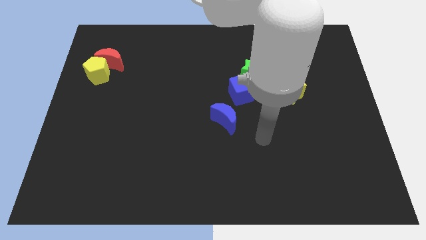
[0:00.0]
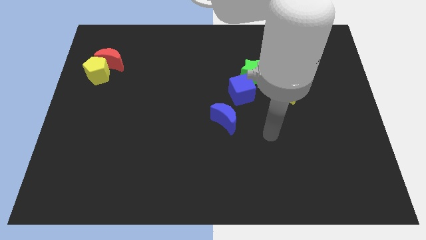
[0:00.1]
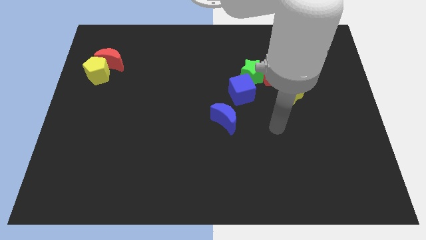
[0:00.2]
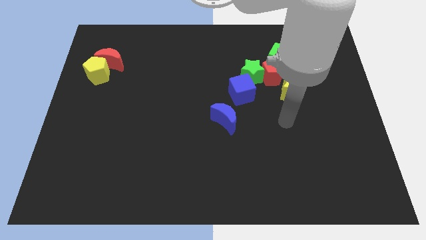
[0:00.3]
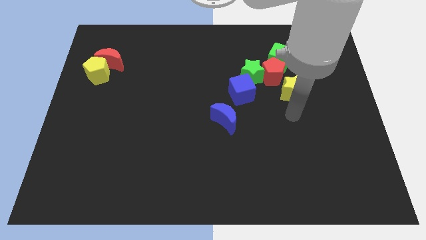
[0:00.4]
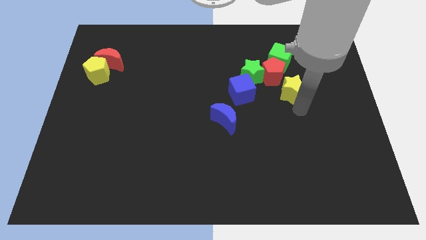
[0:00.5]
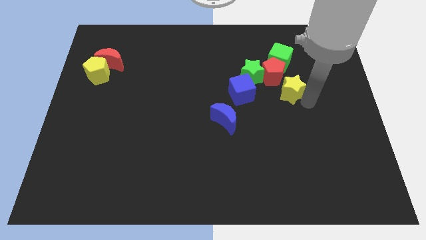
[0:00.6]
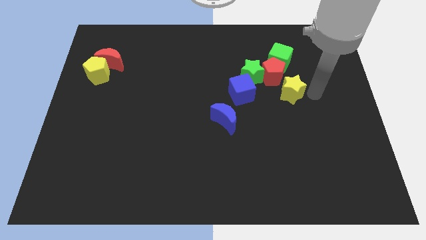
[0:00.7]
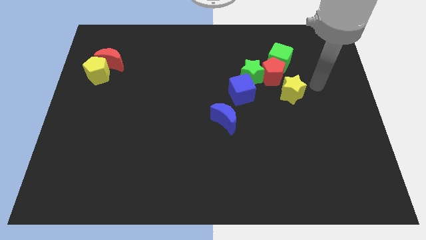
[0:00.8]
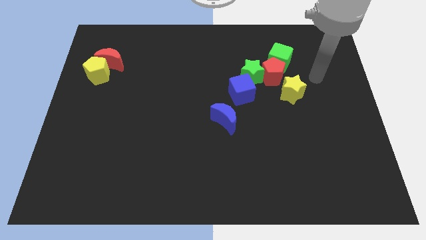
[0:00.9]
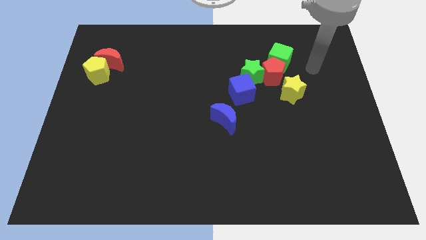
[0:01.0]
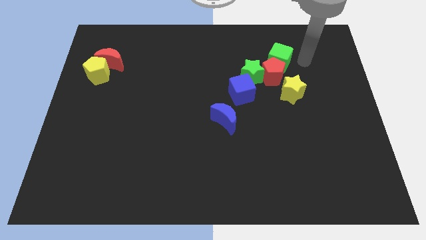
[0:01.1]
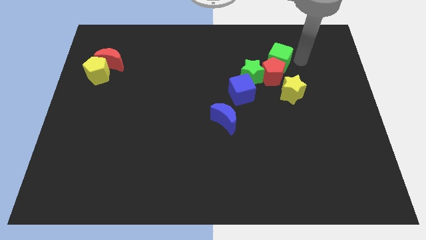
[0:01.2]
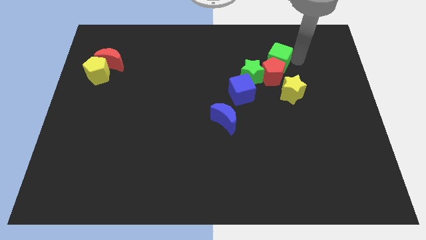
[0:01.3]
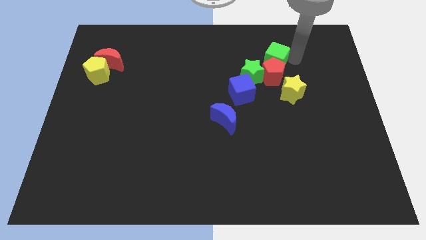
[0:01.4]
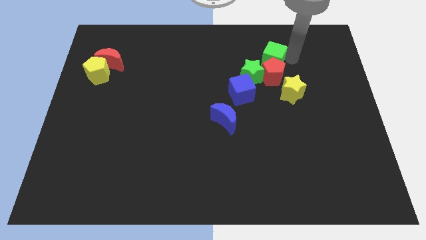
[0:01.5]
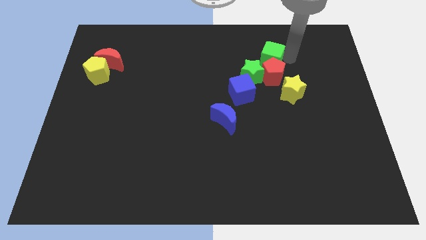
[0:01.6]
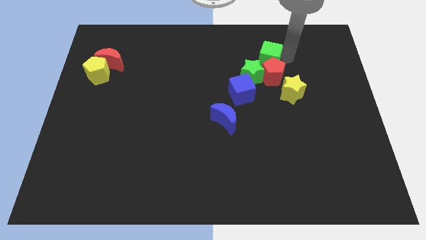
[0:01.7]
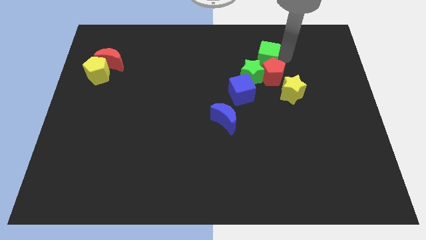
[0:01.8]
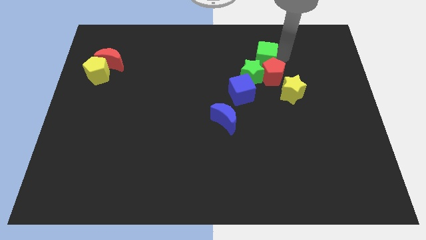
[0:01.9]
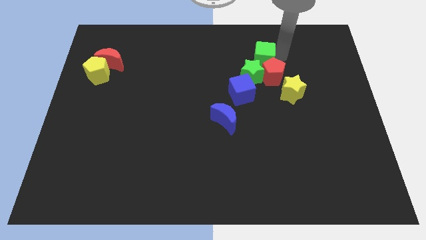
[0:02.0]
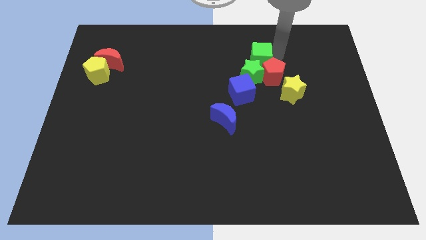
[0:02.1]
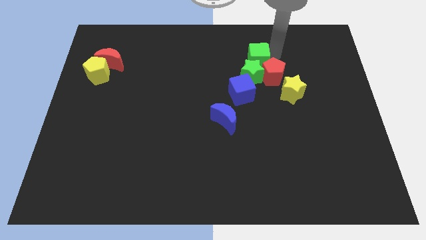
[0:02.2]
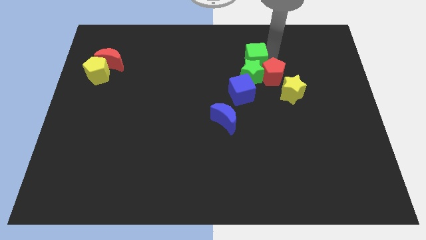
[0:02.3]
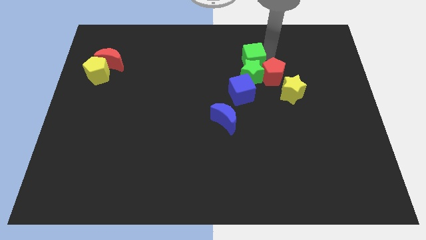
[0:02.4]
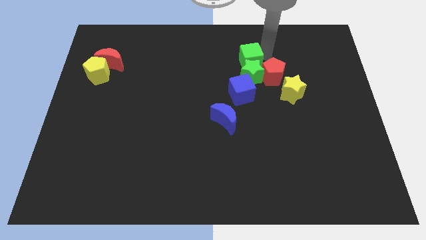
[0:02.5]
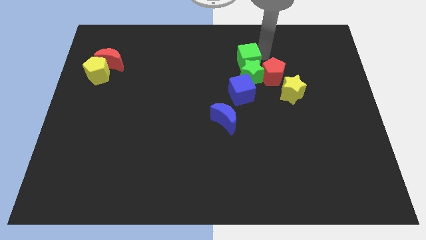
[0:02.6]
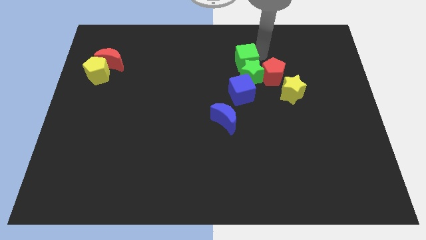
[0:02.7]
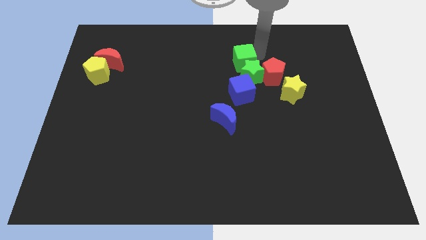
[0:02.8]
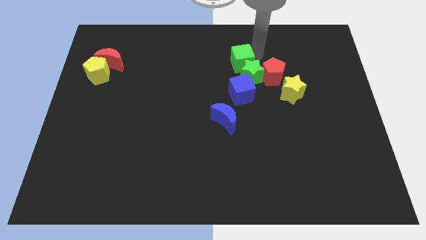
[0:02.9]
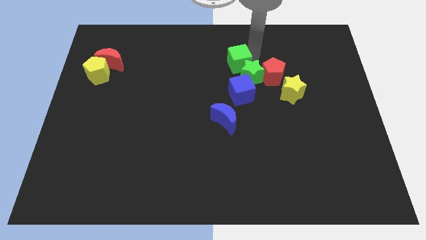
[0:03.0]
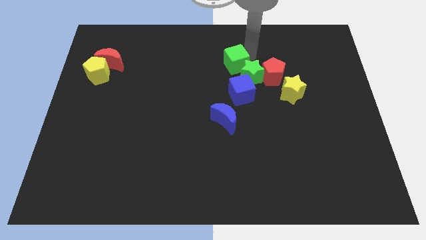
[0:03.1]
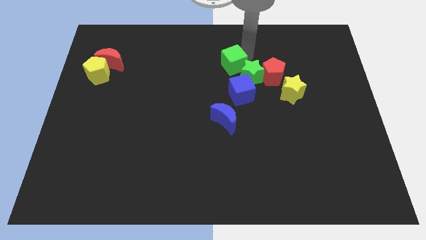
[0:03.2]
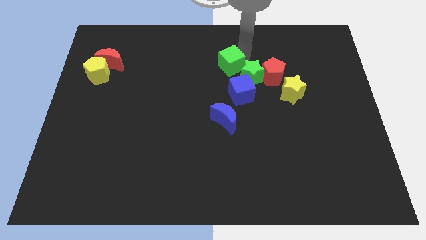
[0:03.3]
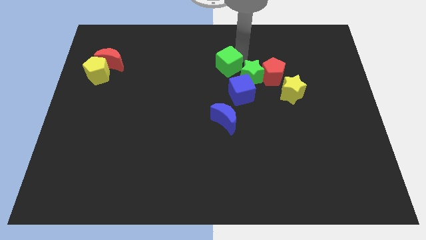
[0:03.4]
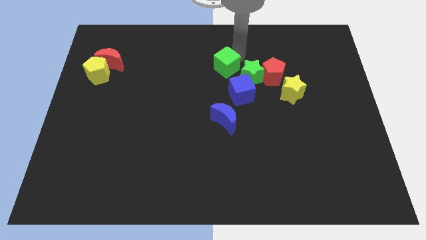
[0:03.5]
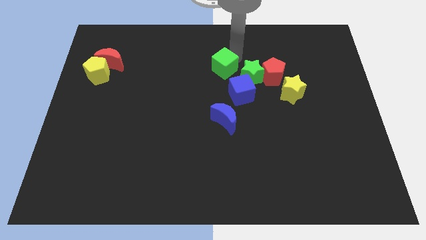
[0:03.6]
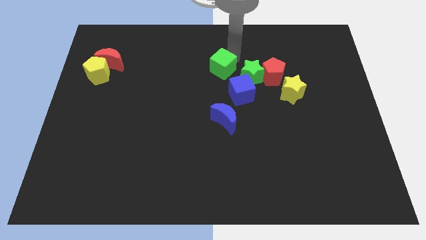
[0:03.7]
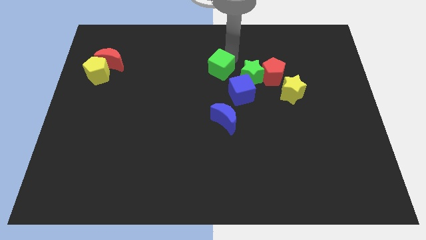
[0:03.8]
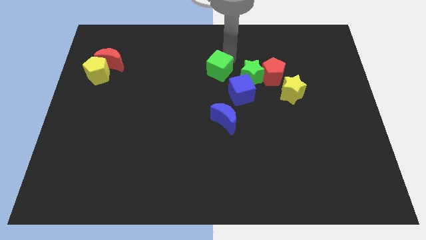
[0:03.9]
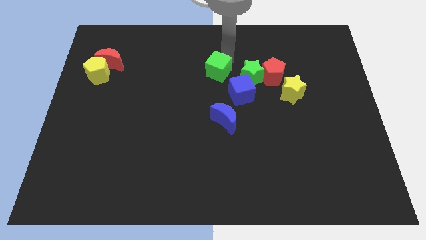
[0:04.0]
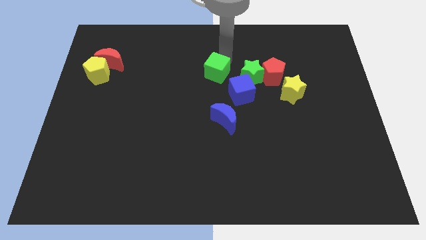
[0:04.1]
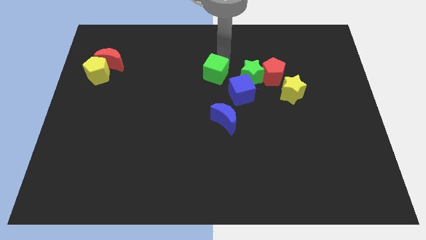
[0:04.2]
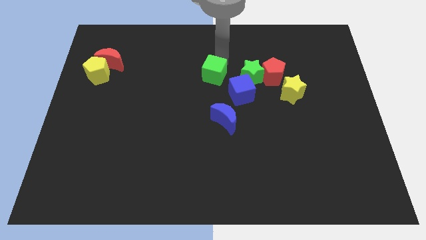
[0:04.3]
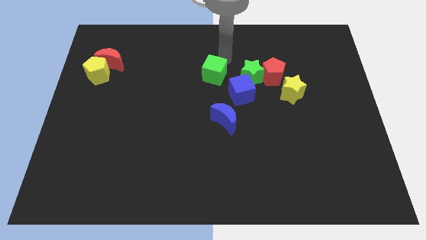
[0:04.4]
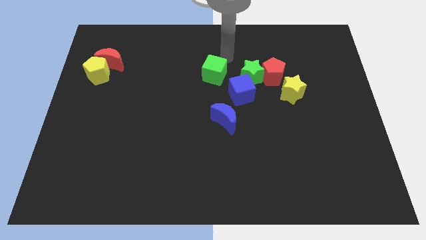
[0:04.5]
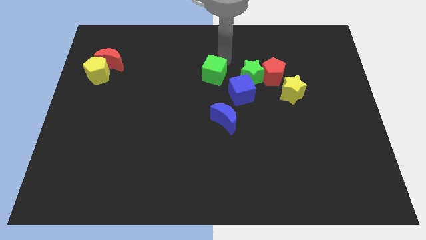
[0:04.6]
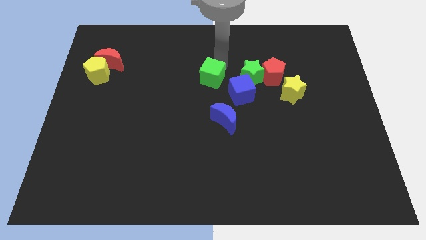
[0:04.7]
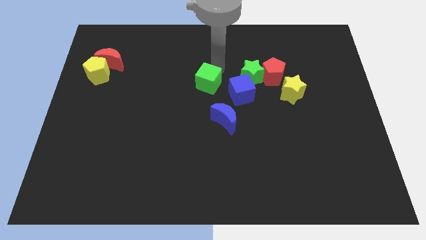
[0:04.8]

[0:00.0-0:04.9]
move the green cube left of the blue cube

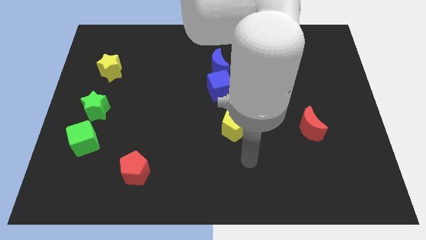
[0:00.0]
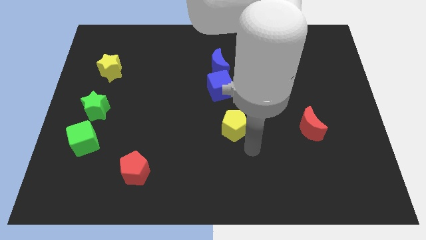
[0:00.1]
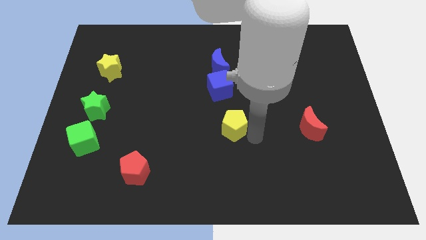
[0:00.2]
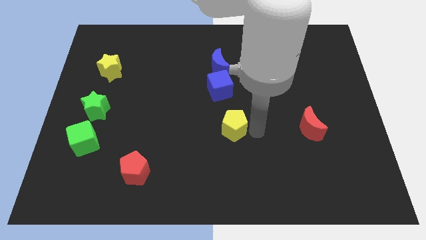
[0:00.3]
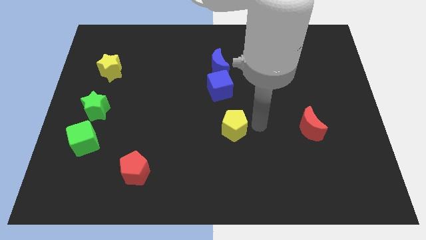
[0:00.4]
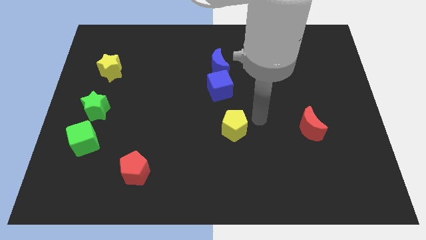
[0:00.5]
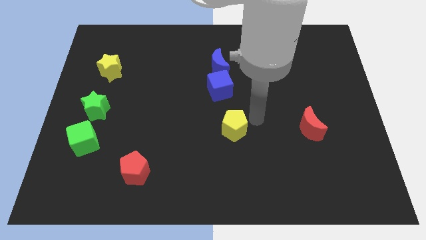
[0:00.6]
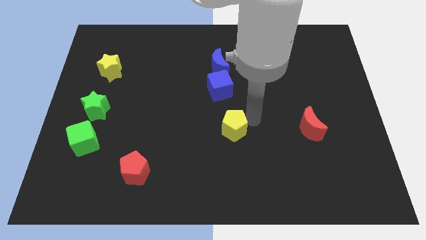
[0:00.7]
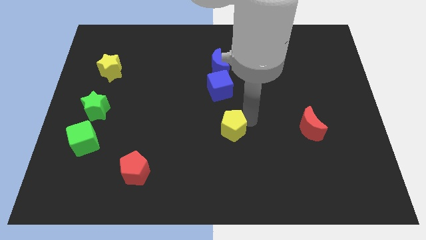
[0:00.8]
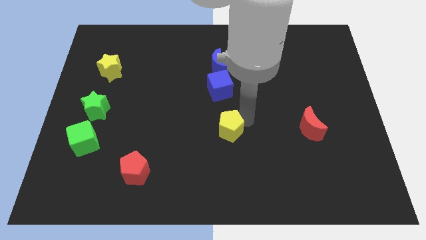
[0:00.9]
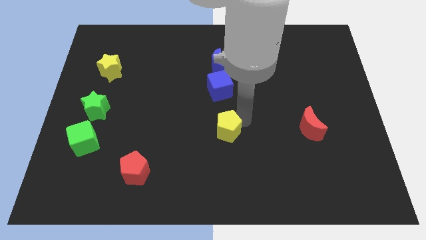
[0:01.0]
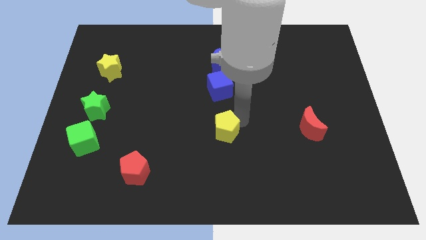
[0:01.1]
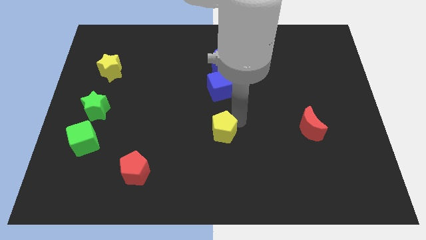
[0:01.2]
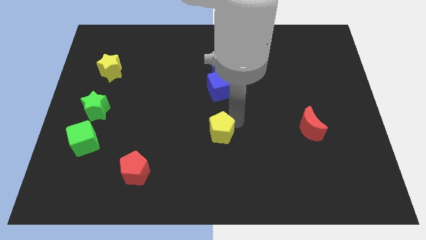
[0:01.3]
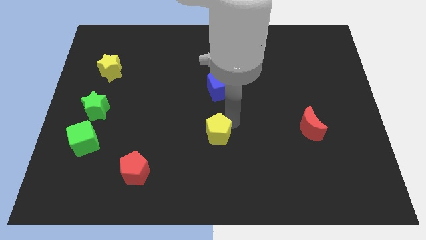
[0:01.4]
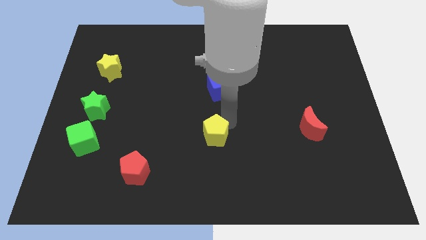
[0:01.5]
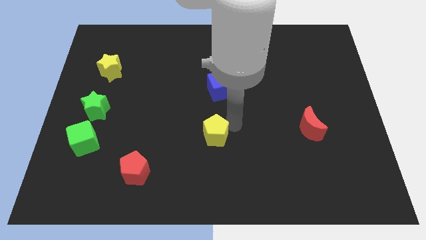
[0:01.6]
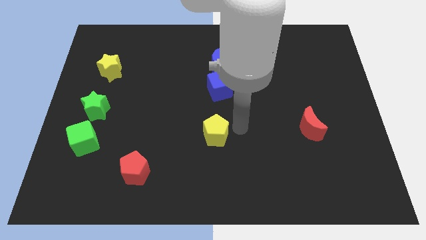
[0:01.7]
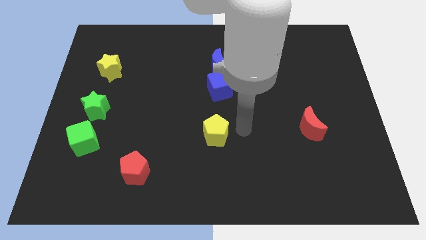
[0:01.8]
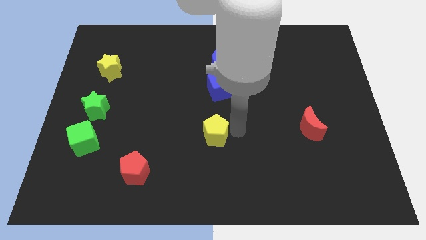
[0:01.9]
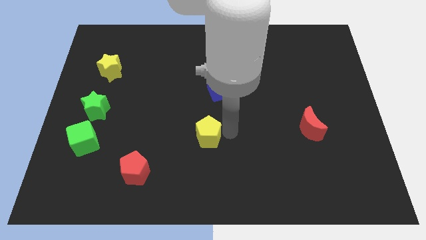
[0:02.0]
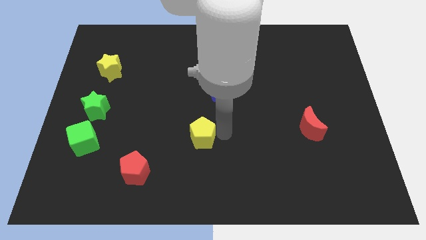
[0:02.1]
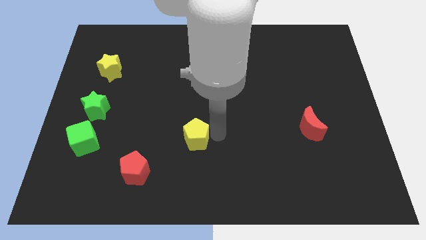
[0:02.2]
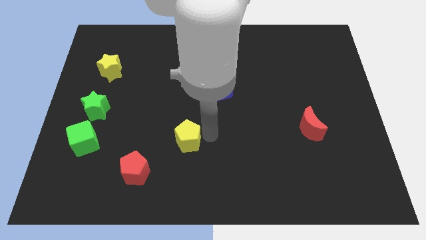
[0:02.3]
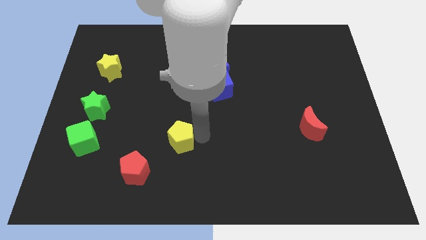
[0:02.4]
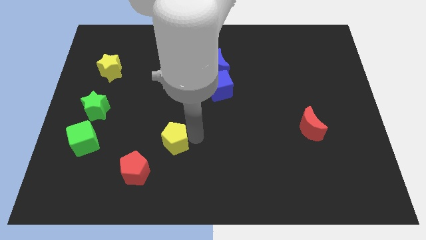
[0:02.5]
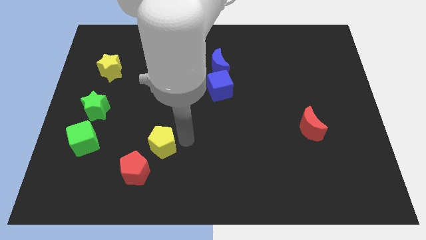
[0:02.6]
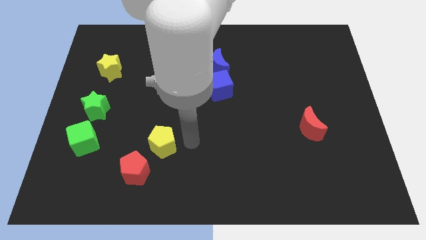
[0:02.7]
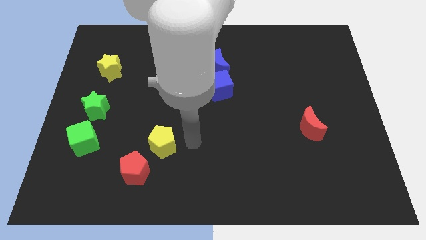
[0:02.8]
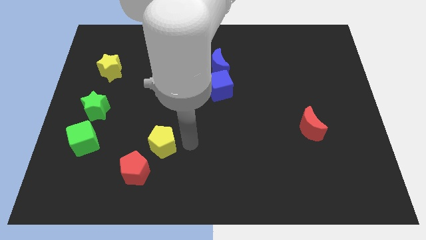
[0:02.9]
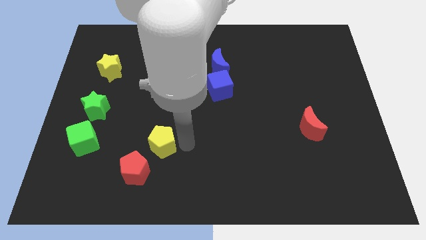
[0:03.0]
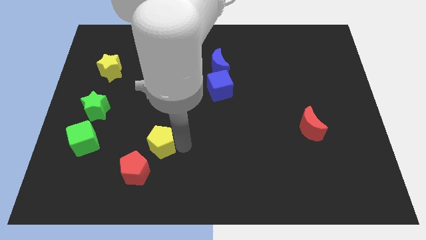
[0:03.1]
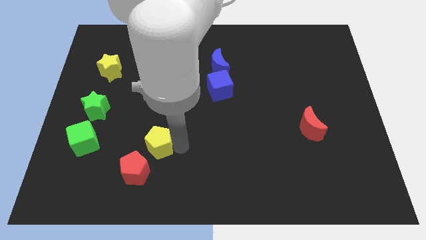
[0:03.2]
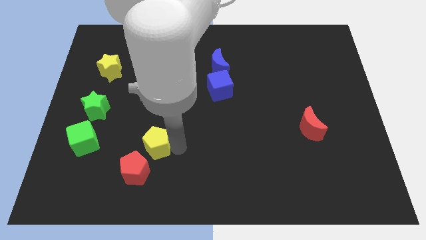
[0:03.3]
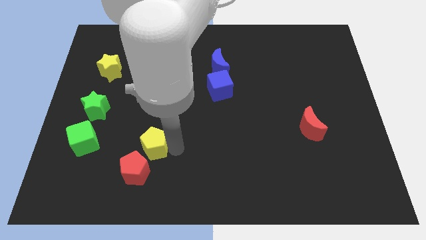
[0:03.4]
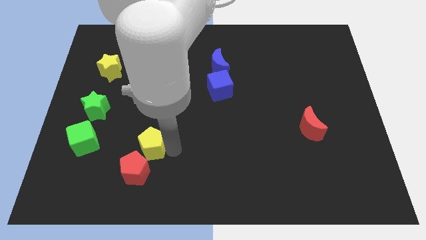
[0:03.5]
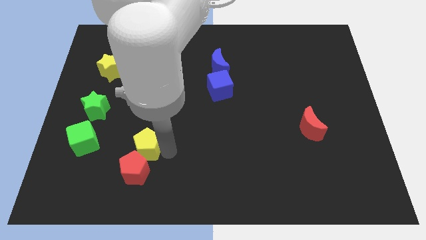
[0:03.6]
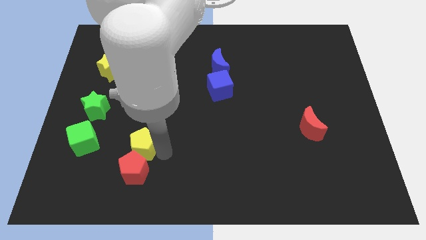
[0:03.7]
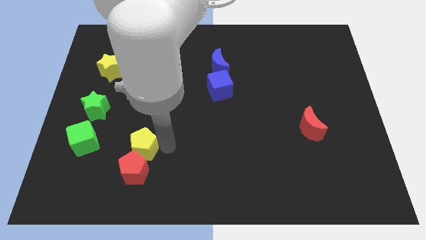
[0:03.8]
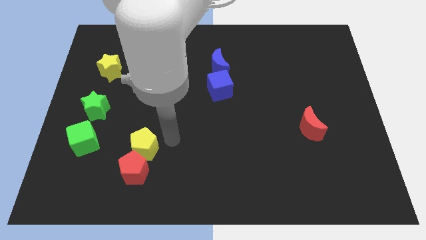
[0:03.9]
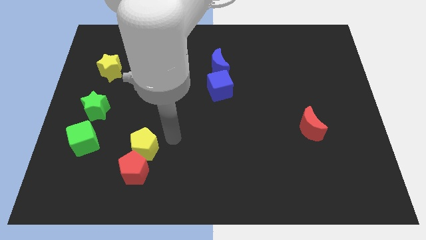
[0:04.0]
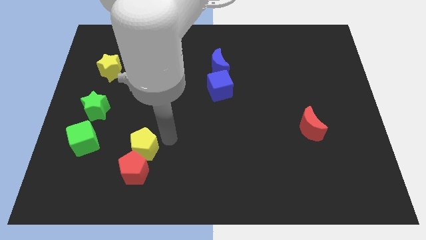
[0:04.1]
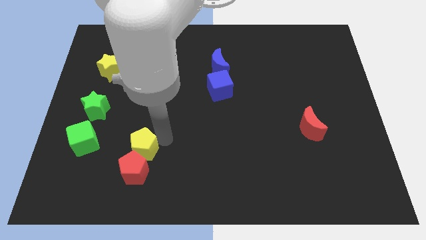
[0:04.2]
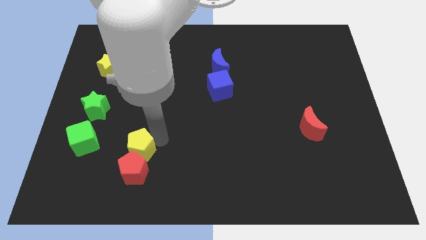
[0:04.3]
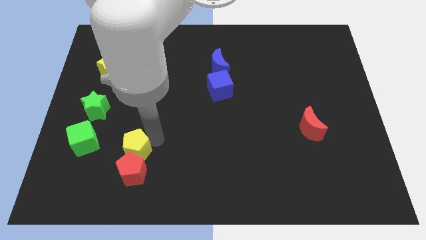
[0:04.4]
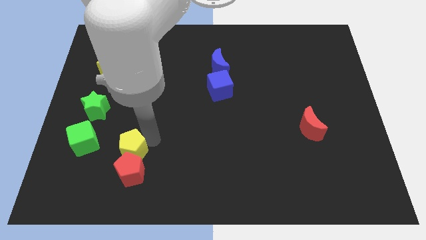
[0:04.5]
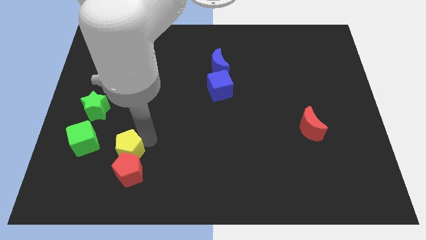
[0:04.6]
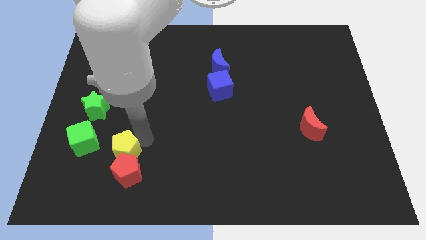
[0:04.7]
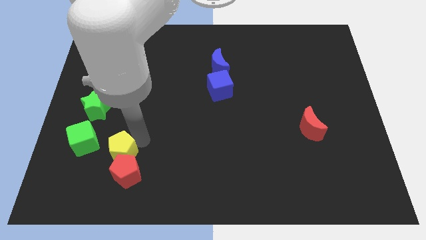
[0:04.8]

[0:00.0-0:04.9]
push the yellow pentagon diagonally down and to the right of the green cube
